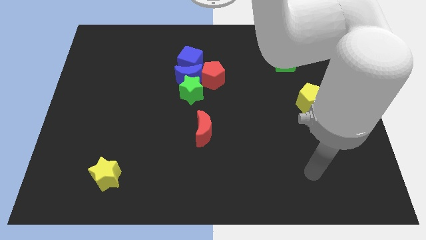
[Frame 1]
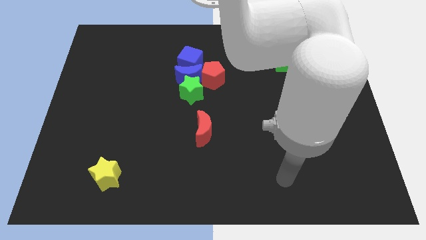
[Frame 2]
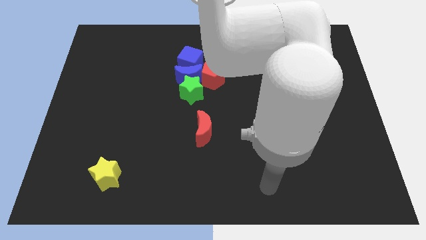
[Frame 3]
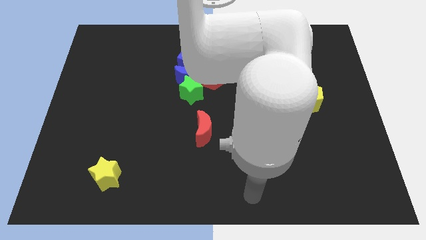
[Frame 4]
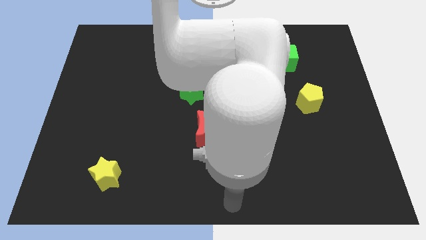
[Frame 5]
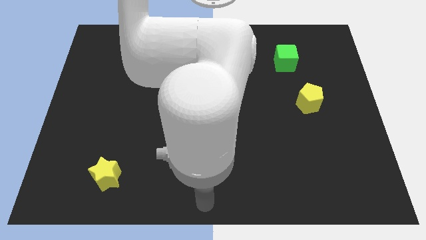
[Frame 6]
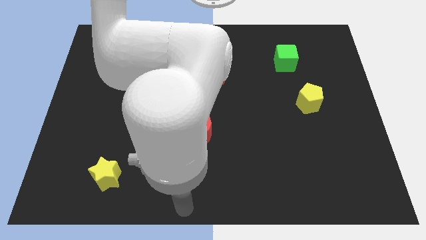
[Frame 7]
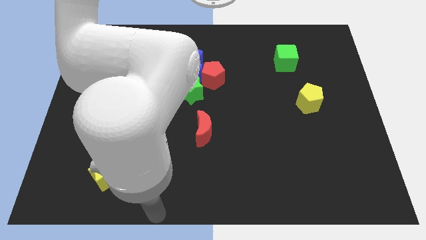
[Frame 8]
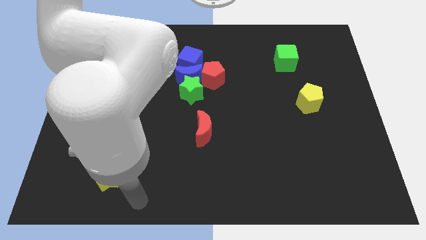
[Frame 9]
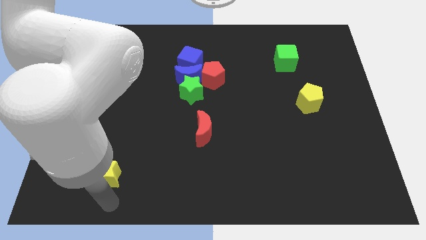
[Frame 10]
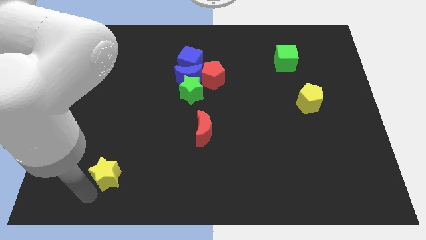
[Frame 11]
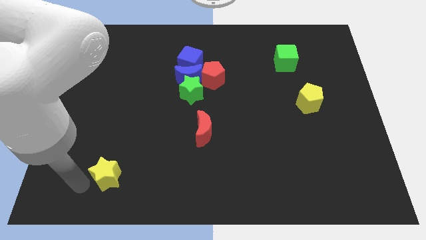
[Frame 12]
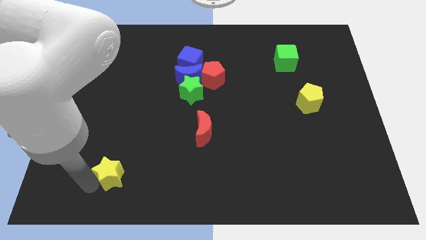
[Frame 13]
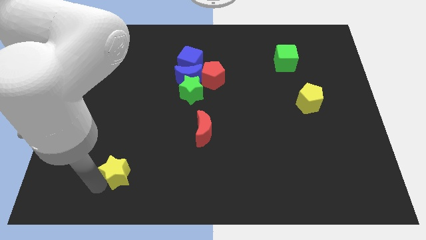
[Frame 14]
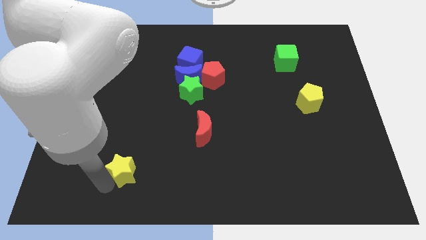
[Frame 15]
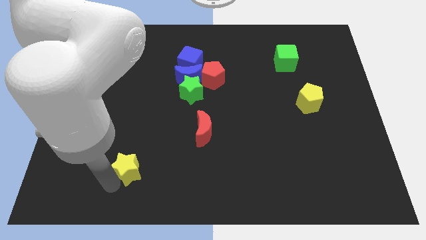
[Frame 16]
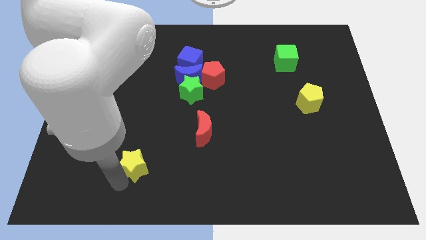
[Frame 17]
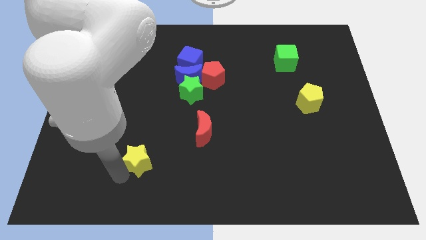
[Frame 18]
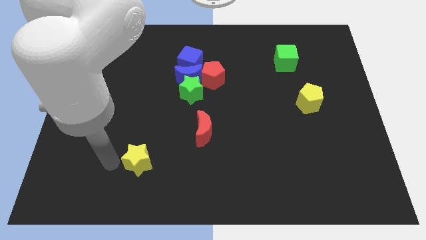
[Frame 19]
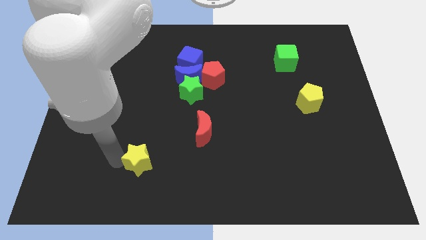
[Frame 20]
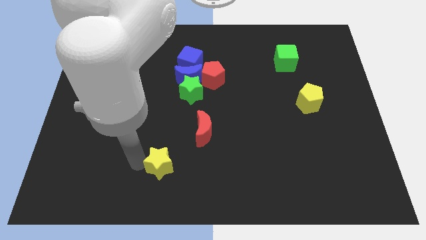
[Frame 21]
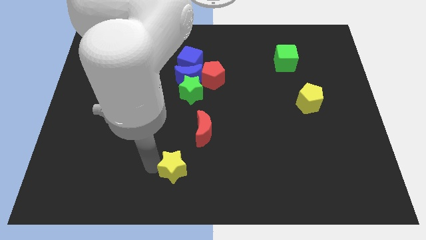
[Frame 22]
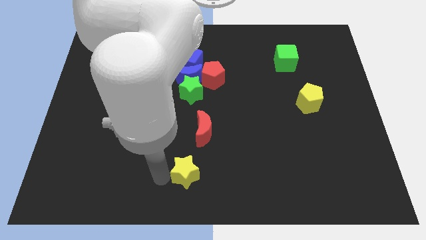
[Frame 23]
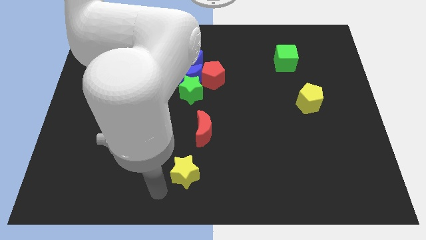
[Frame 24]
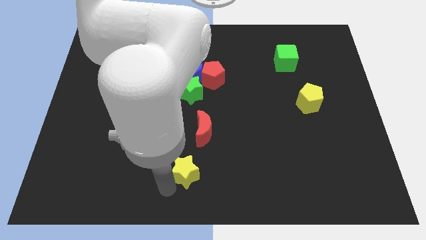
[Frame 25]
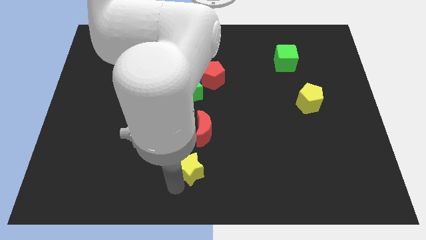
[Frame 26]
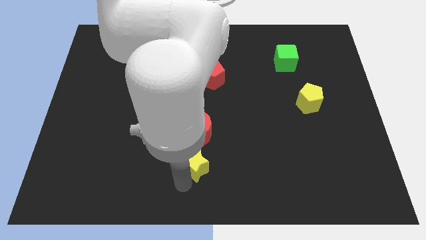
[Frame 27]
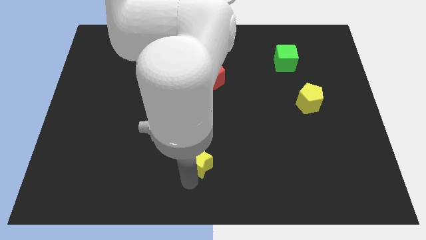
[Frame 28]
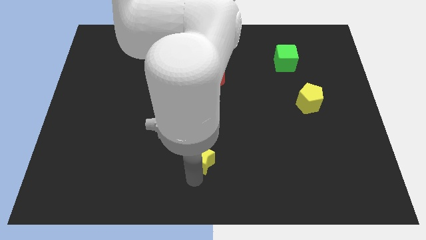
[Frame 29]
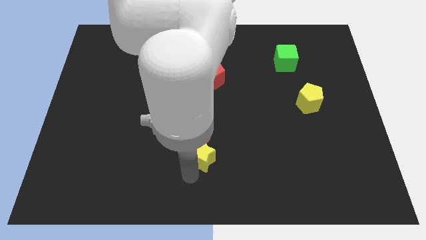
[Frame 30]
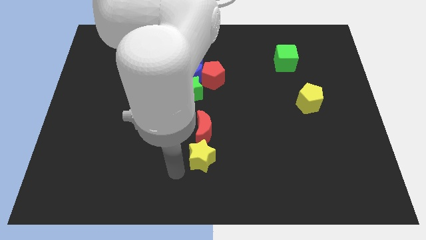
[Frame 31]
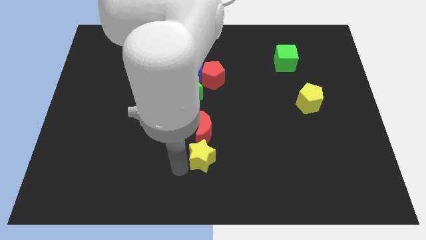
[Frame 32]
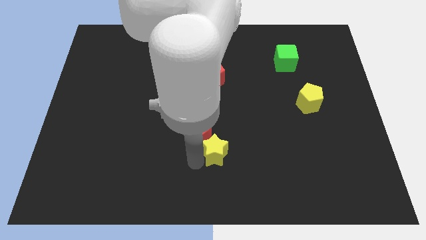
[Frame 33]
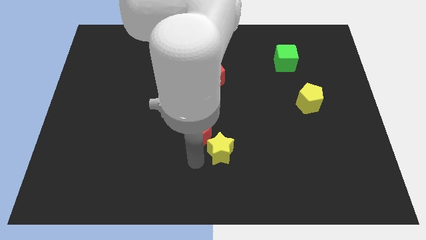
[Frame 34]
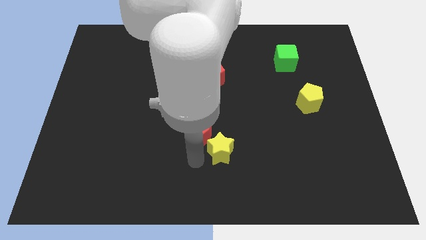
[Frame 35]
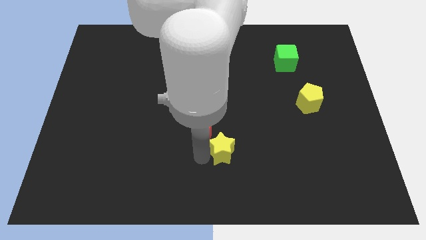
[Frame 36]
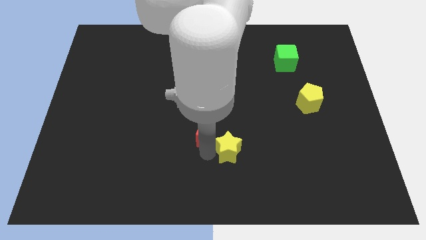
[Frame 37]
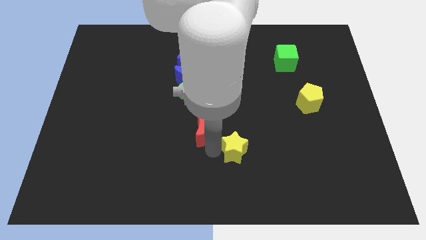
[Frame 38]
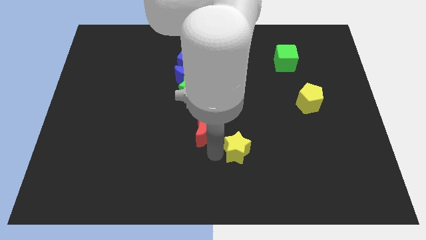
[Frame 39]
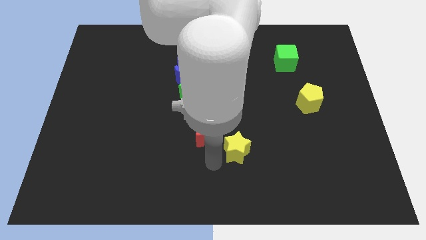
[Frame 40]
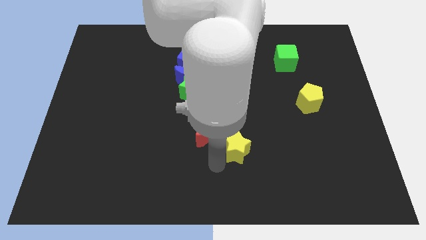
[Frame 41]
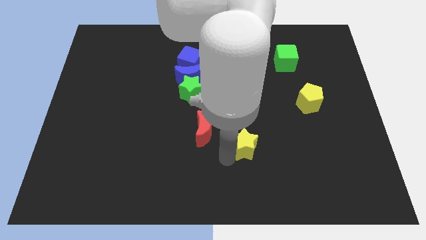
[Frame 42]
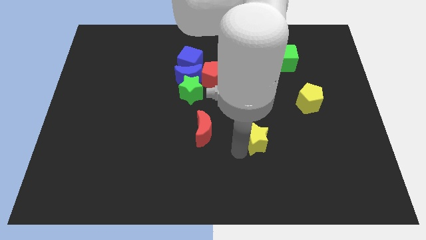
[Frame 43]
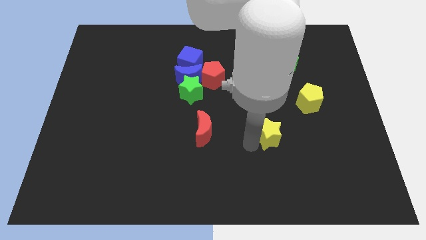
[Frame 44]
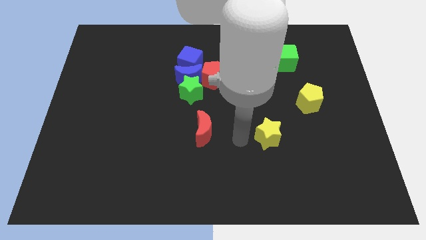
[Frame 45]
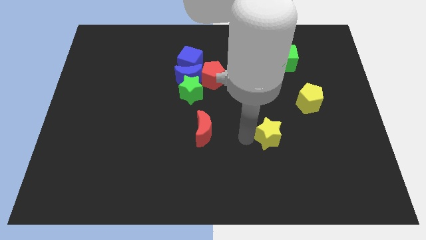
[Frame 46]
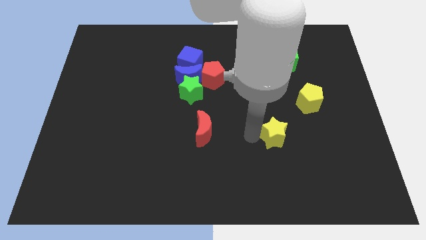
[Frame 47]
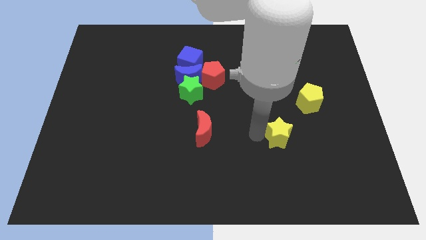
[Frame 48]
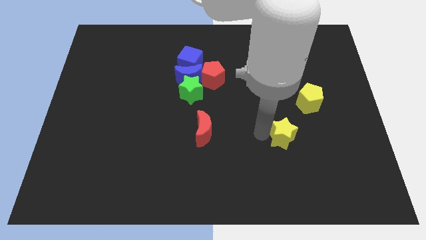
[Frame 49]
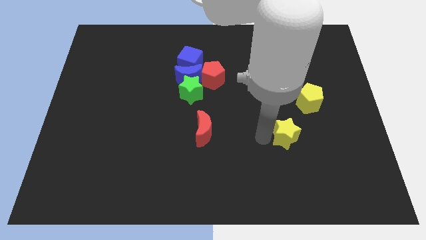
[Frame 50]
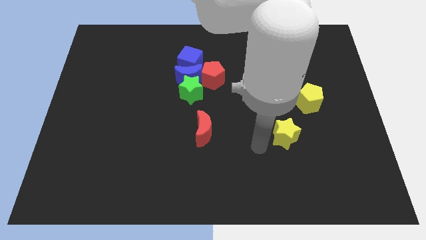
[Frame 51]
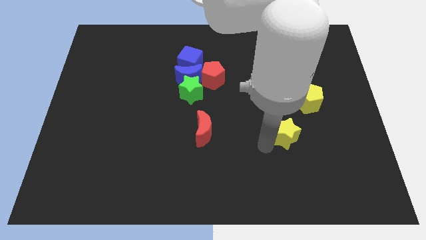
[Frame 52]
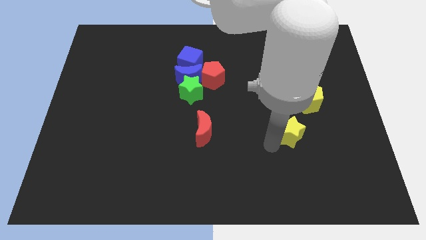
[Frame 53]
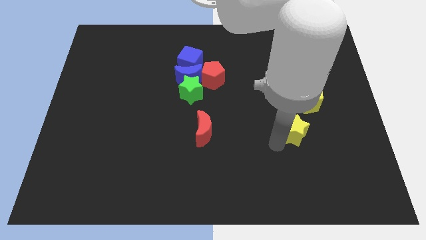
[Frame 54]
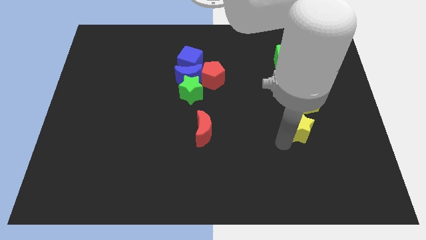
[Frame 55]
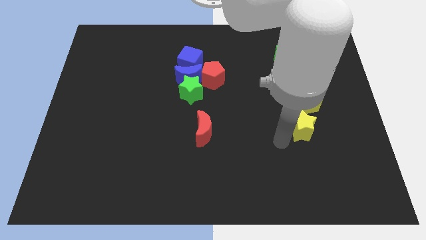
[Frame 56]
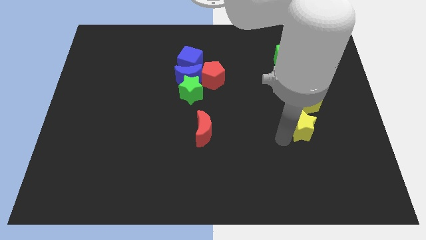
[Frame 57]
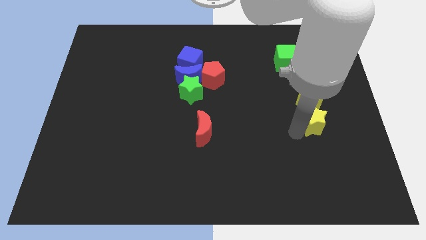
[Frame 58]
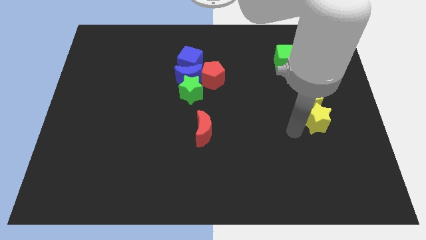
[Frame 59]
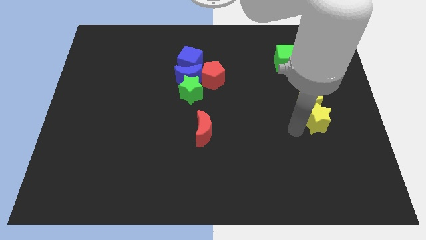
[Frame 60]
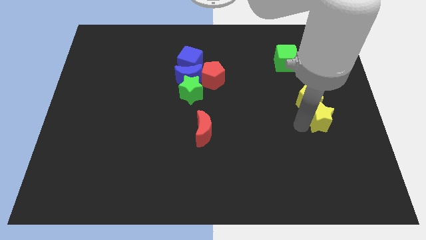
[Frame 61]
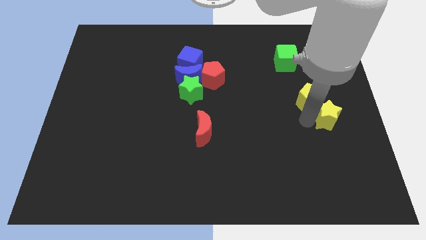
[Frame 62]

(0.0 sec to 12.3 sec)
push the yellow star to the right side of the board
